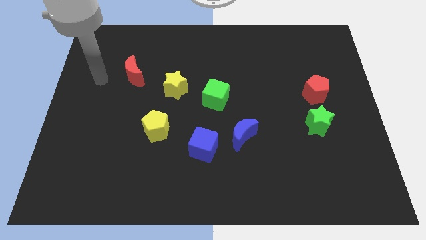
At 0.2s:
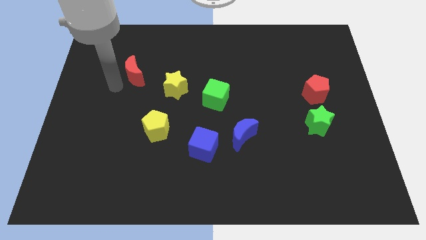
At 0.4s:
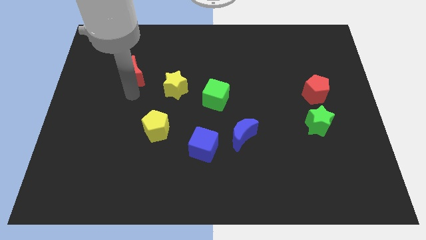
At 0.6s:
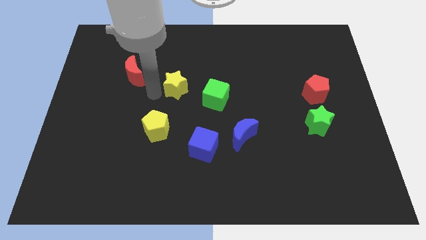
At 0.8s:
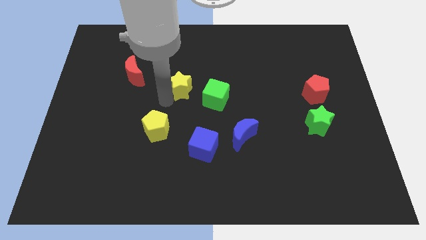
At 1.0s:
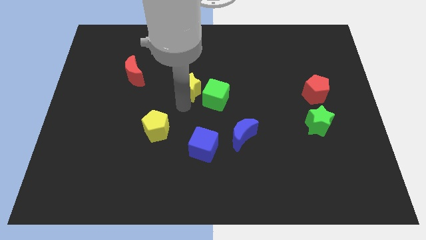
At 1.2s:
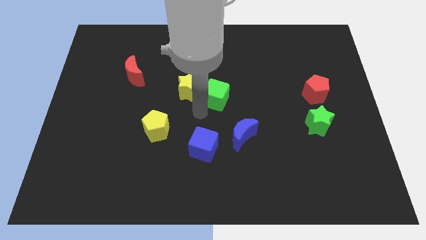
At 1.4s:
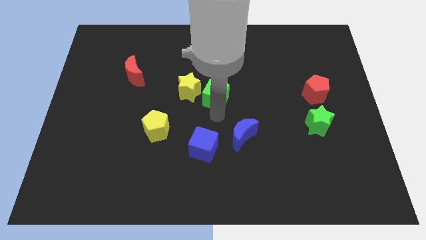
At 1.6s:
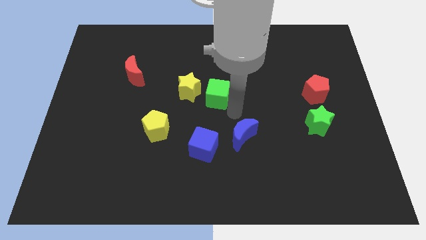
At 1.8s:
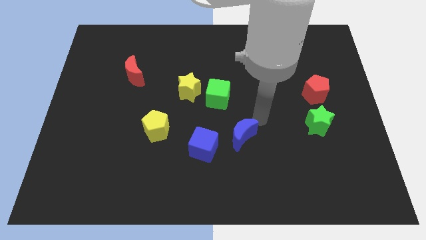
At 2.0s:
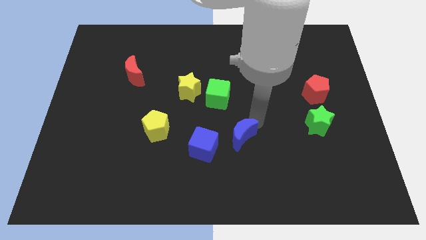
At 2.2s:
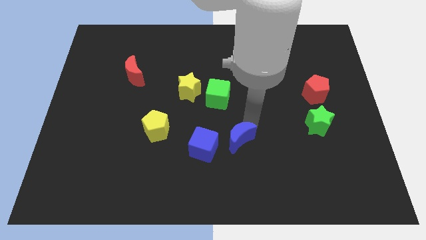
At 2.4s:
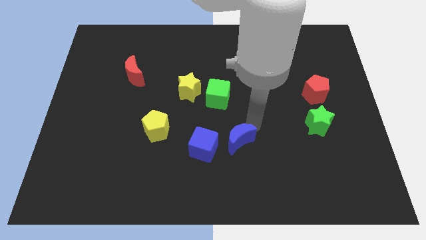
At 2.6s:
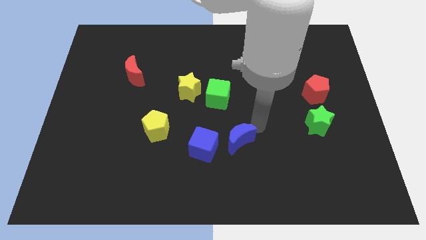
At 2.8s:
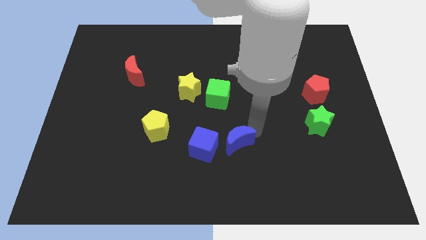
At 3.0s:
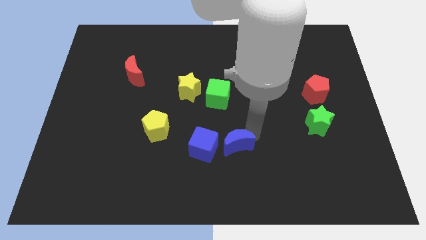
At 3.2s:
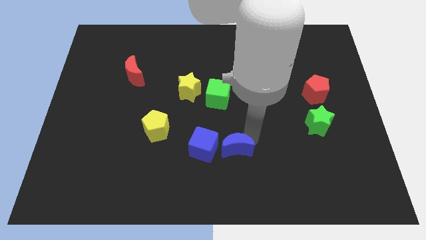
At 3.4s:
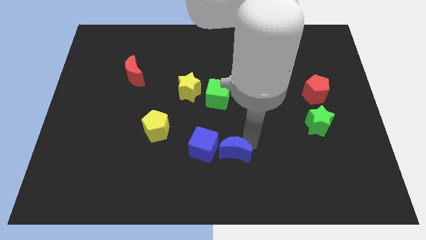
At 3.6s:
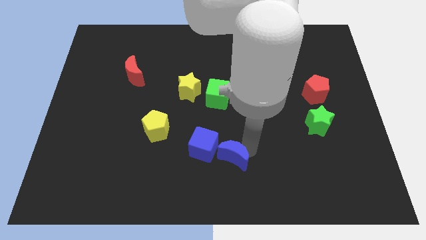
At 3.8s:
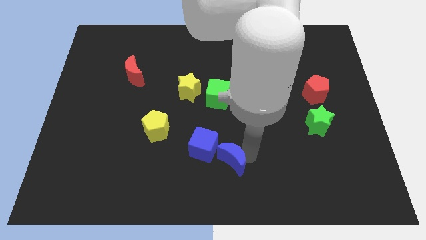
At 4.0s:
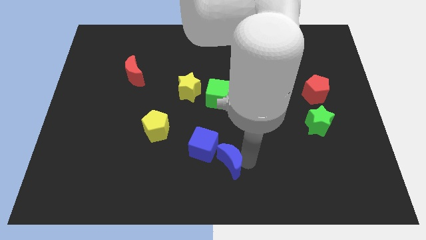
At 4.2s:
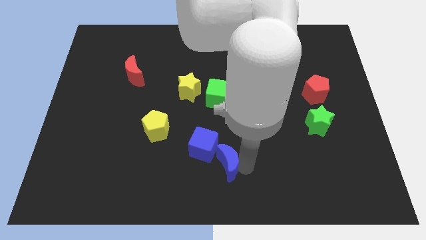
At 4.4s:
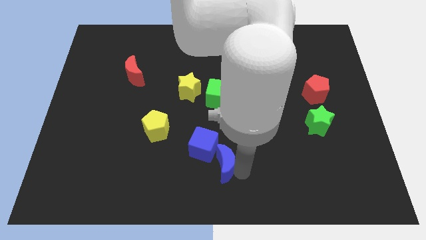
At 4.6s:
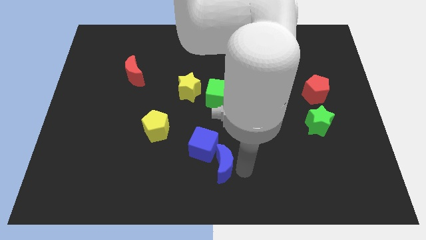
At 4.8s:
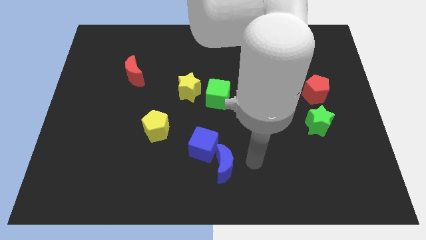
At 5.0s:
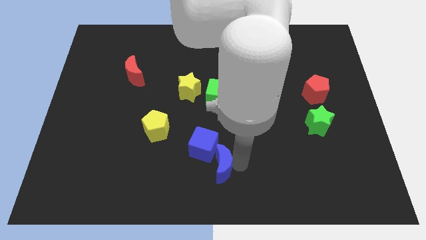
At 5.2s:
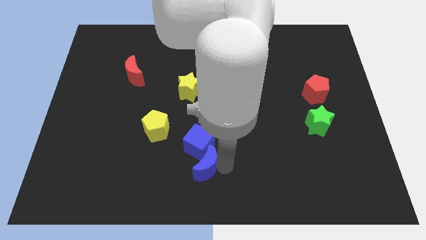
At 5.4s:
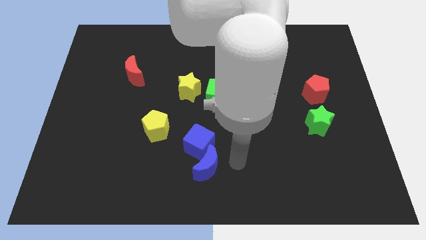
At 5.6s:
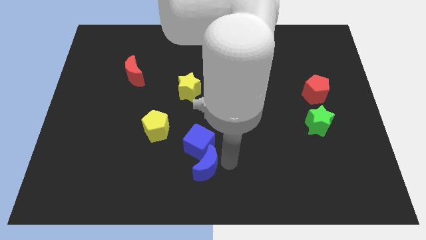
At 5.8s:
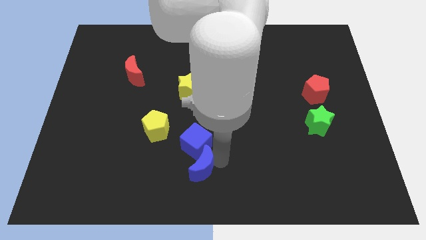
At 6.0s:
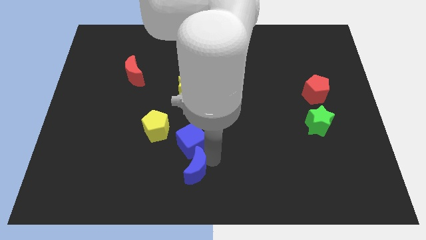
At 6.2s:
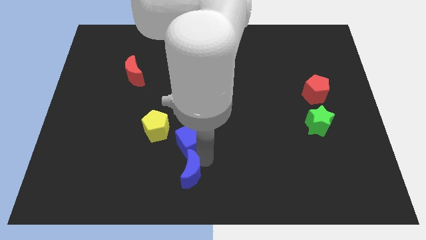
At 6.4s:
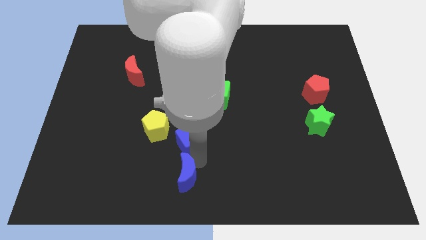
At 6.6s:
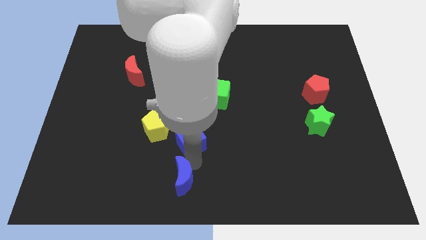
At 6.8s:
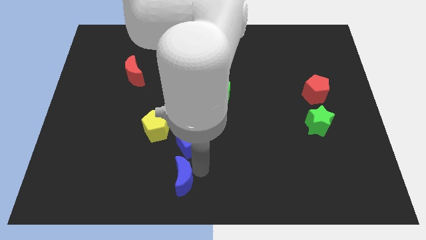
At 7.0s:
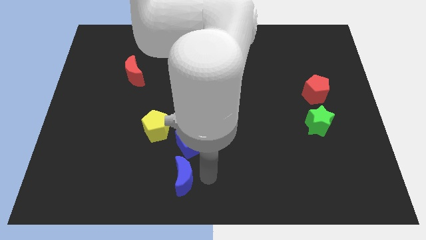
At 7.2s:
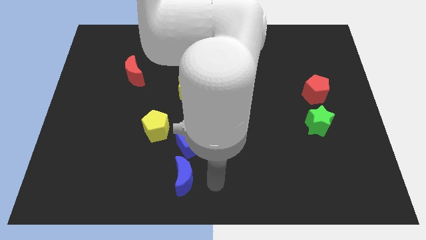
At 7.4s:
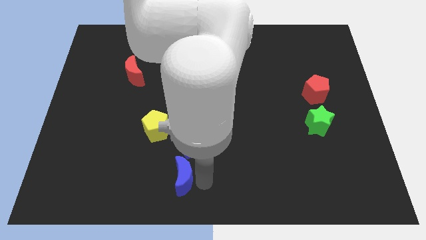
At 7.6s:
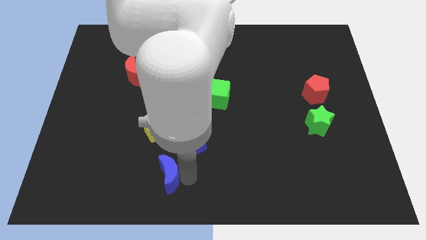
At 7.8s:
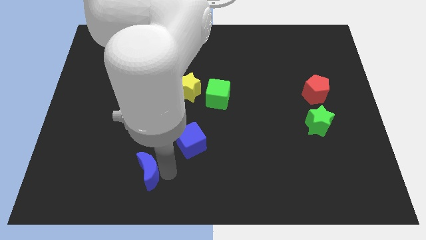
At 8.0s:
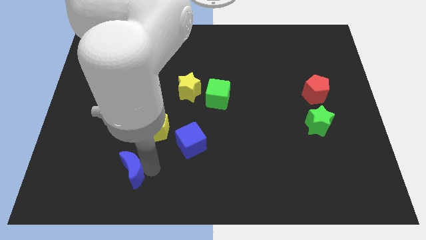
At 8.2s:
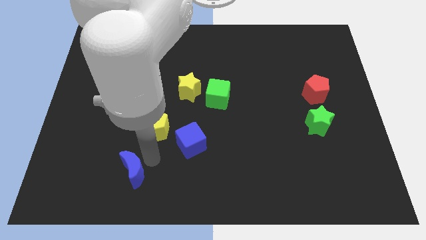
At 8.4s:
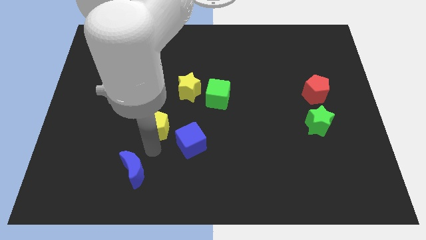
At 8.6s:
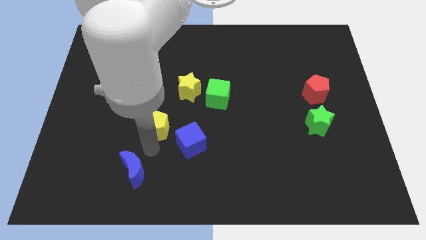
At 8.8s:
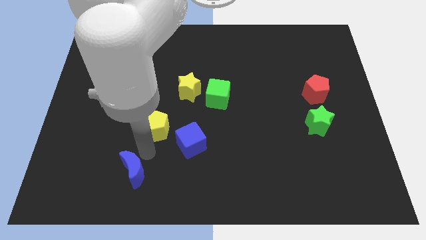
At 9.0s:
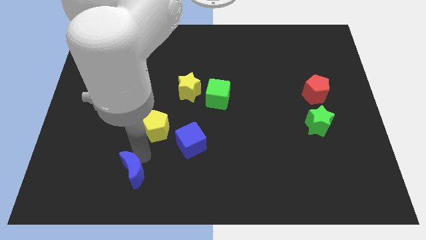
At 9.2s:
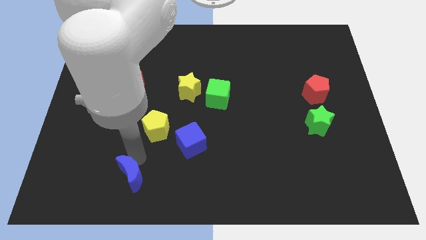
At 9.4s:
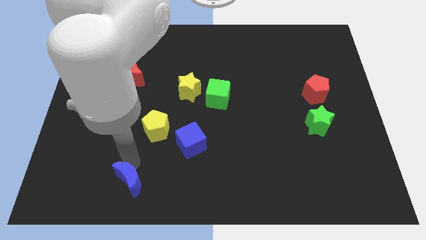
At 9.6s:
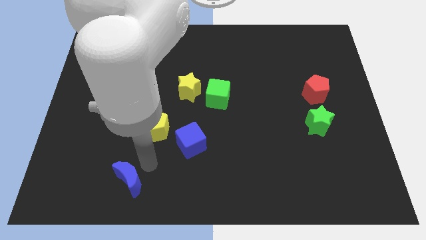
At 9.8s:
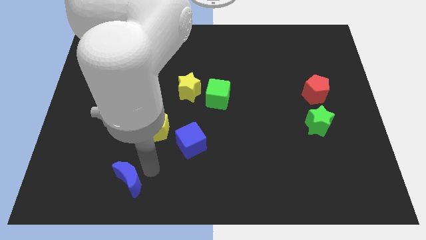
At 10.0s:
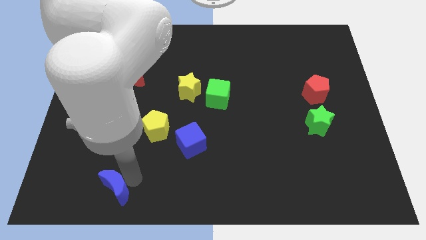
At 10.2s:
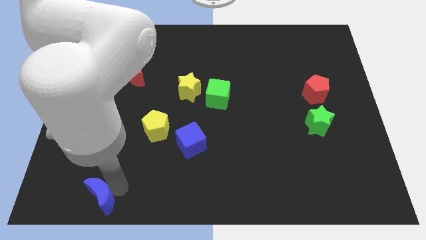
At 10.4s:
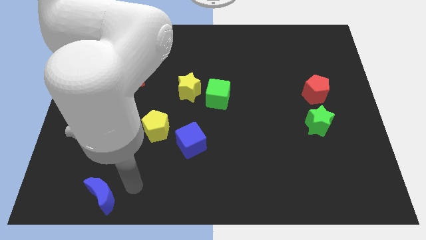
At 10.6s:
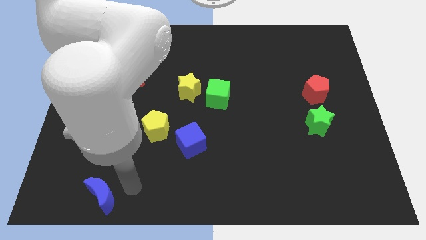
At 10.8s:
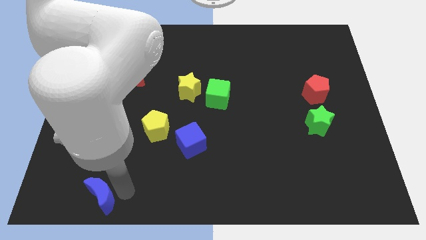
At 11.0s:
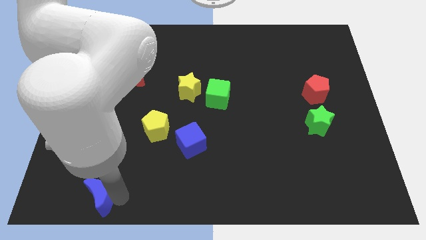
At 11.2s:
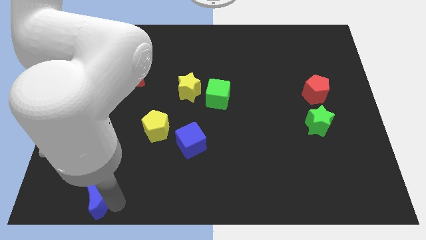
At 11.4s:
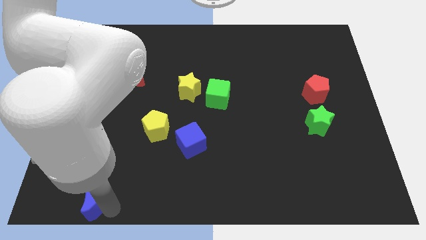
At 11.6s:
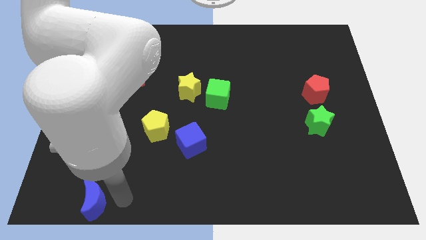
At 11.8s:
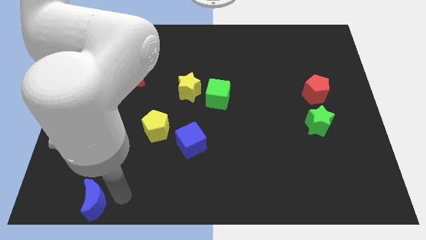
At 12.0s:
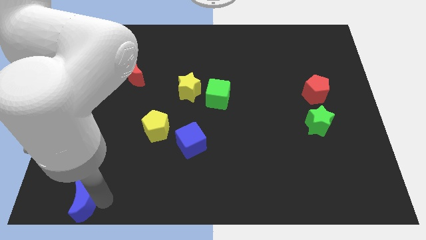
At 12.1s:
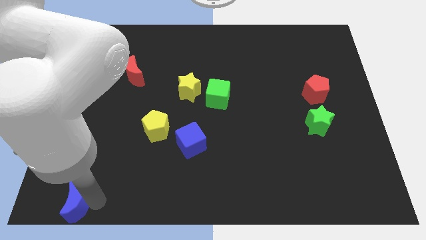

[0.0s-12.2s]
move the blue moon to the lower left corner
